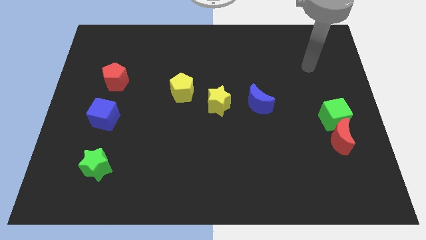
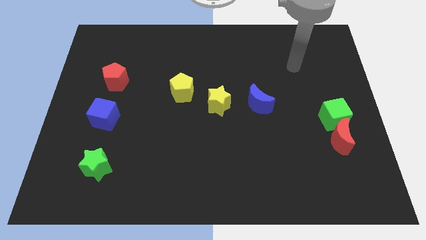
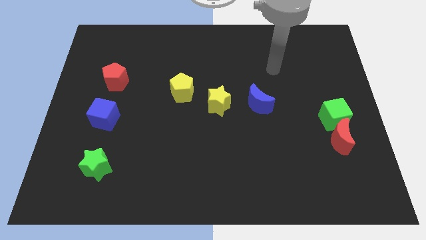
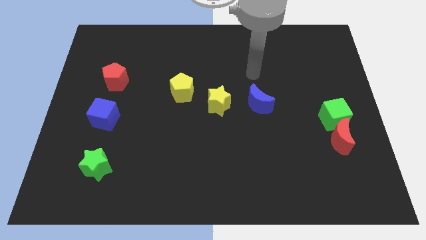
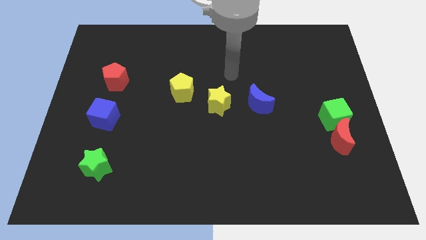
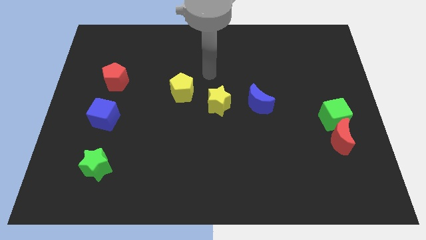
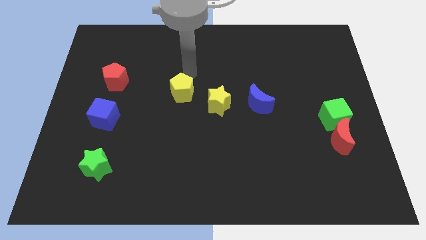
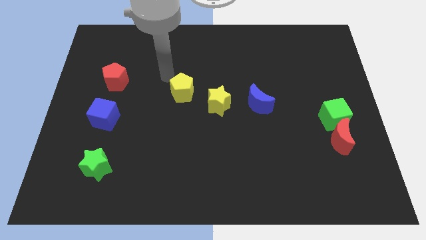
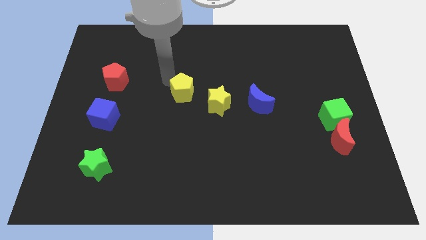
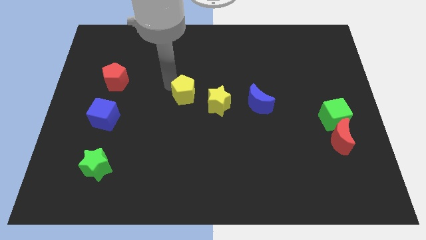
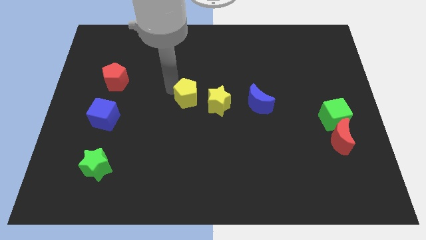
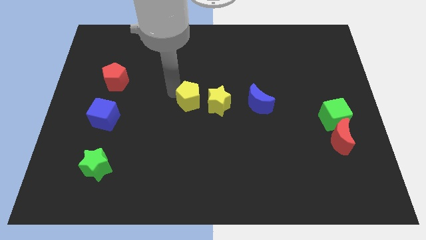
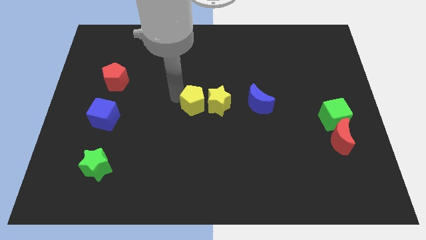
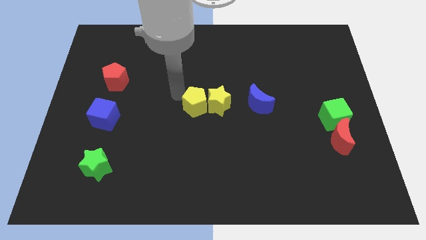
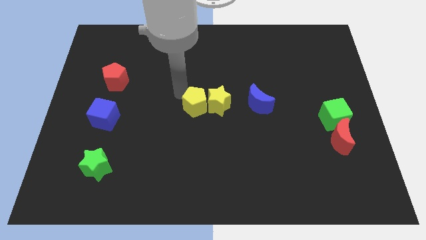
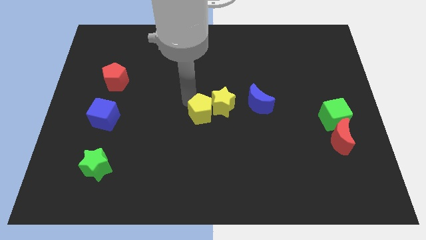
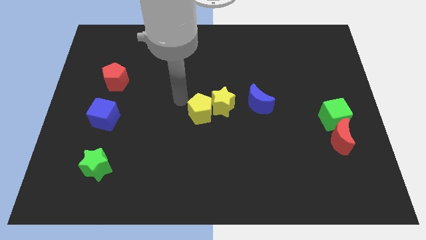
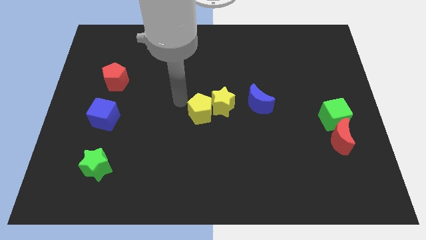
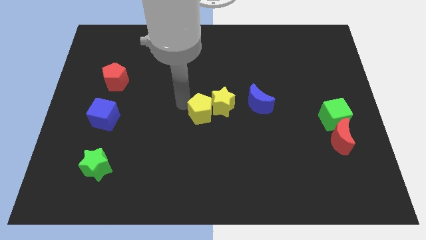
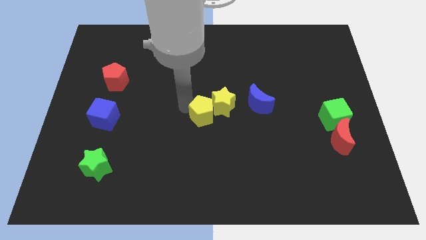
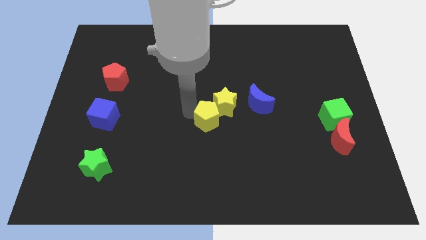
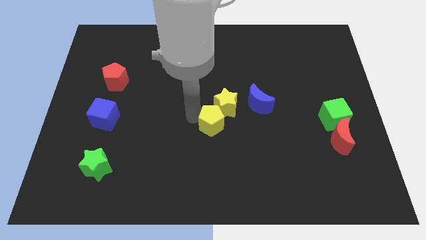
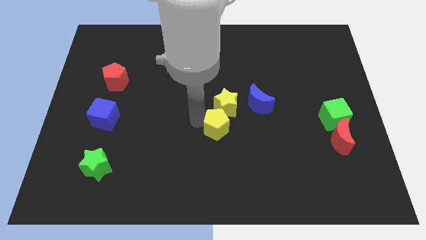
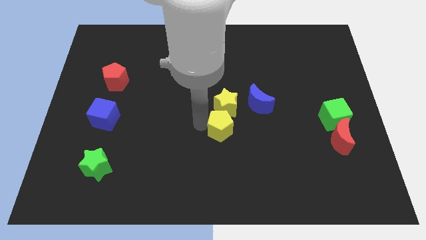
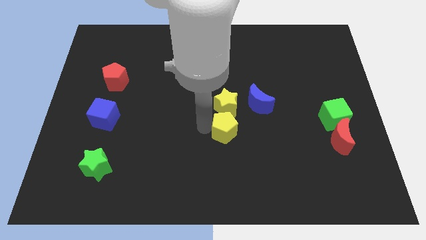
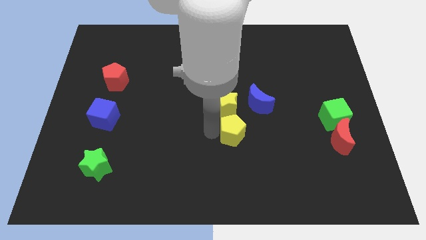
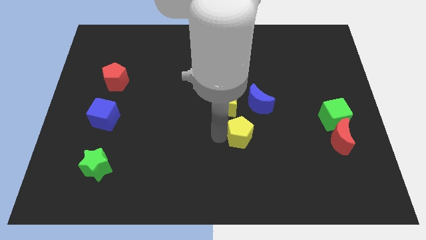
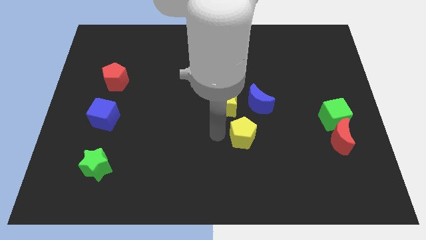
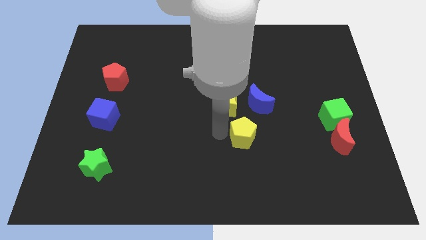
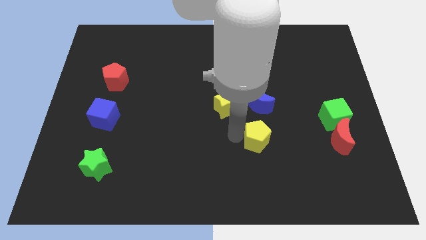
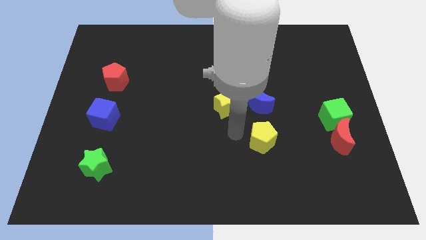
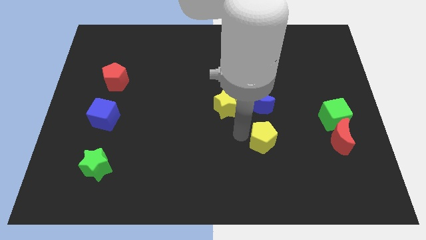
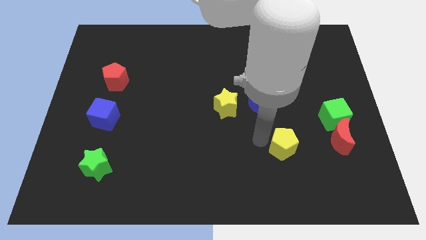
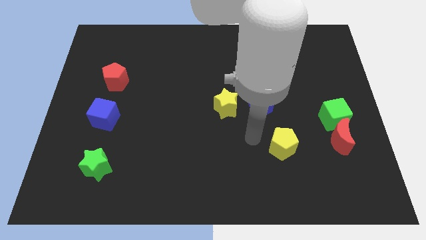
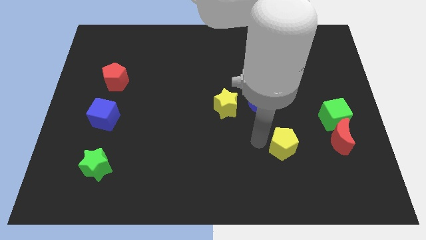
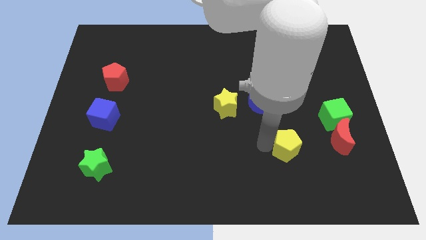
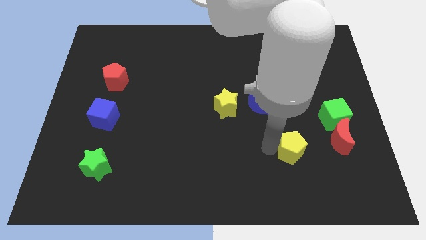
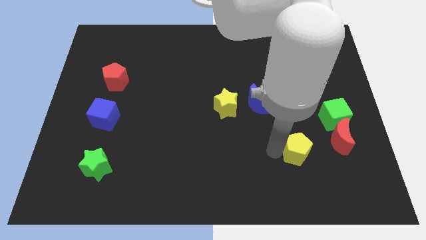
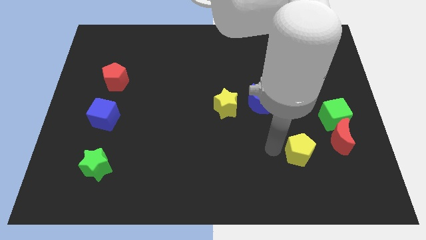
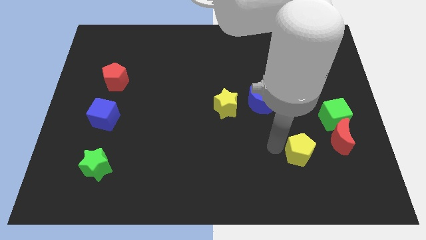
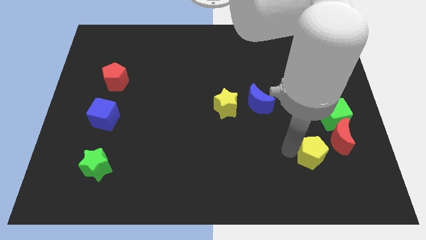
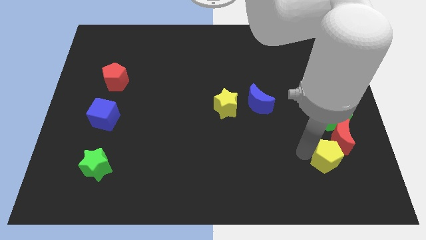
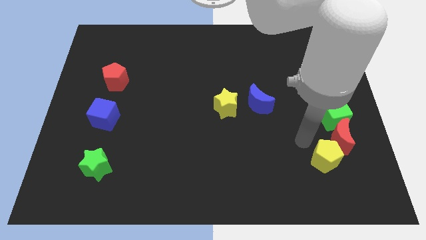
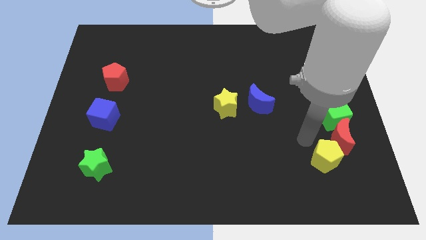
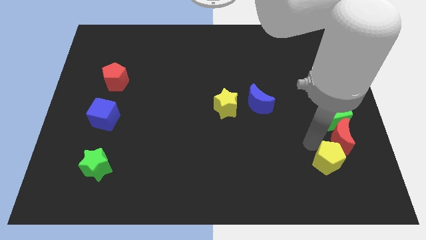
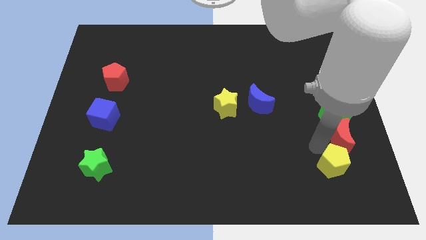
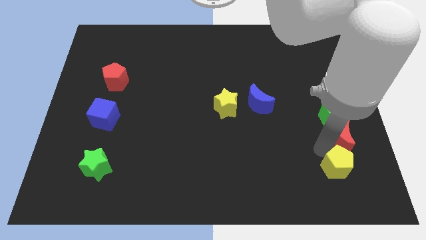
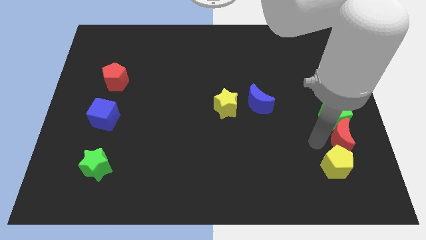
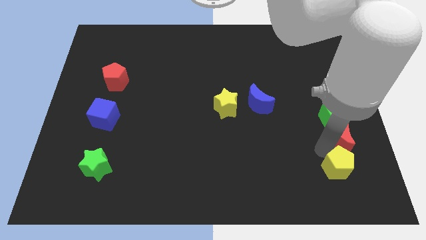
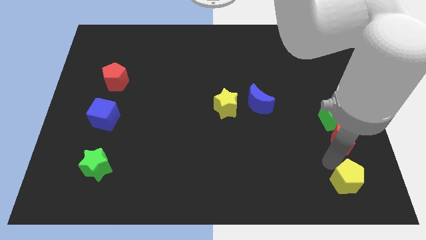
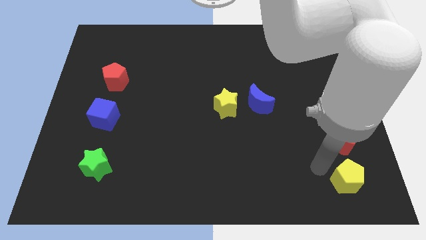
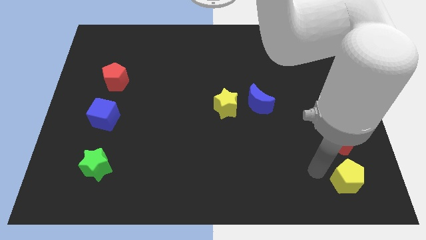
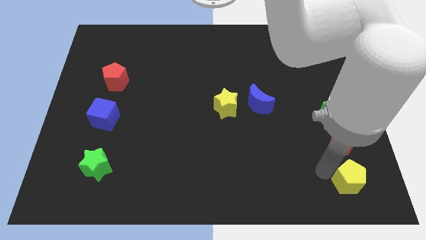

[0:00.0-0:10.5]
slide the yellow pentagon to the bottom right corner

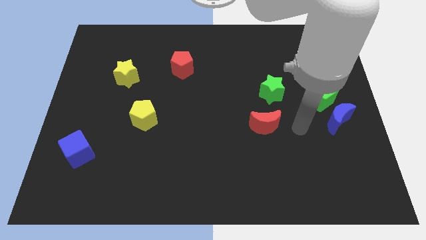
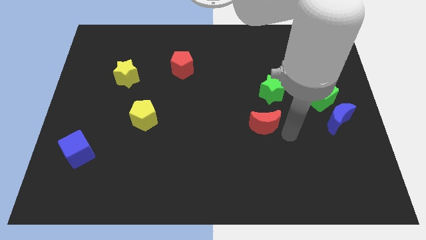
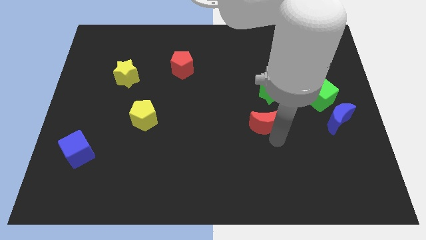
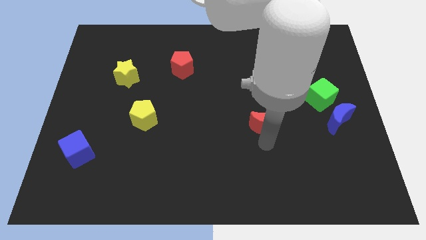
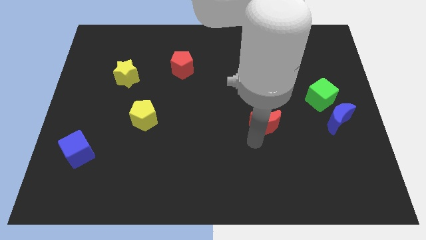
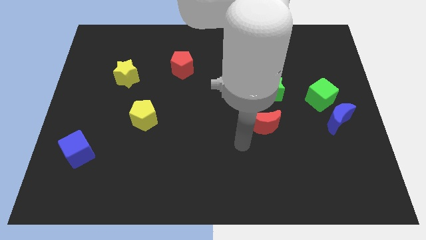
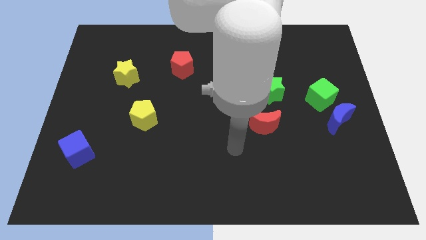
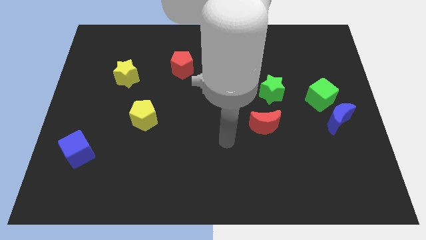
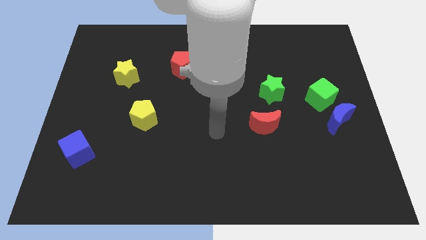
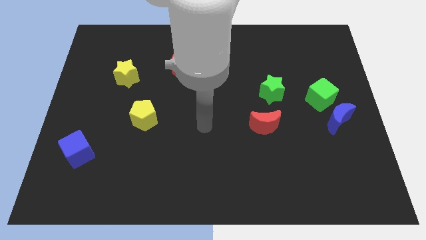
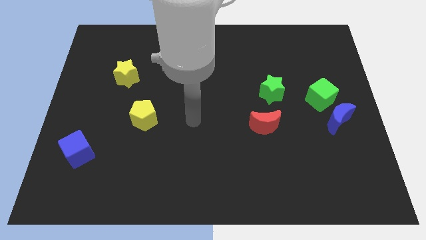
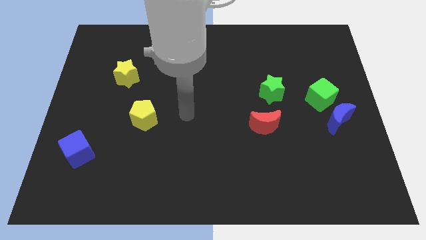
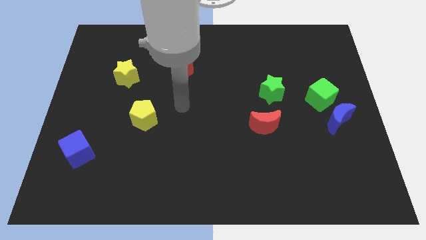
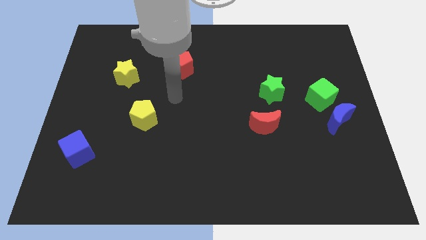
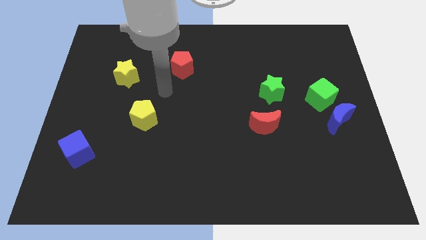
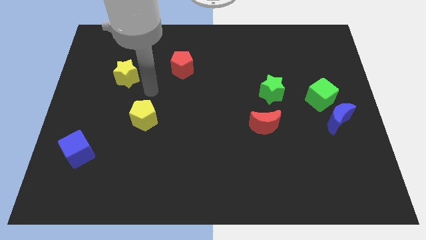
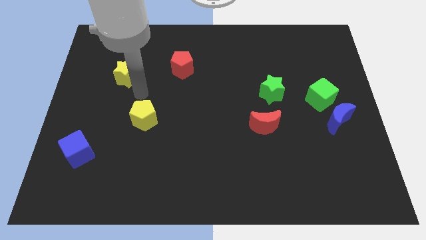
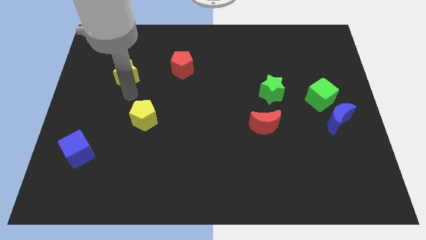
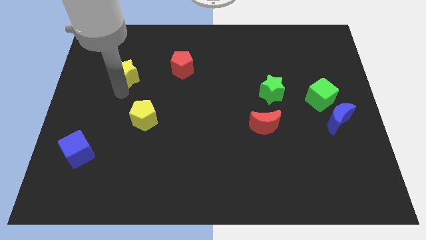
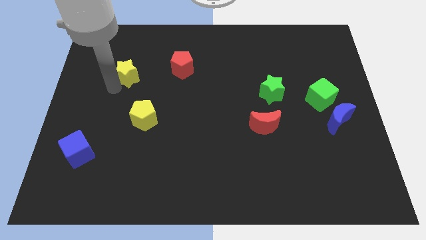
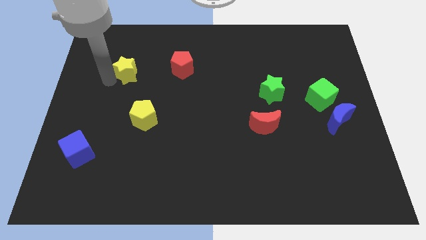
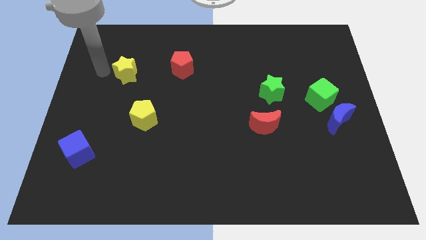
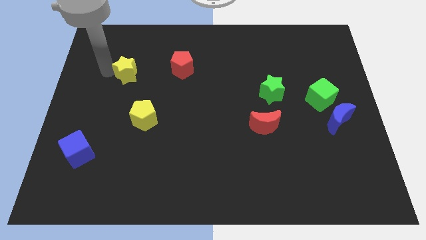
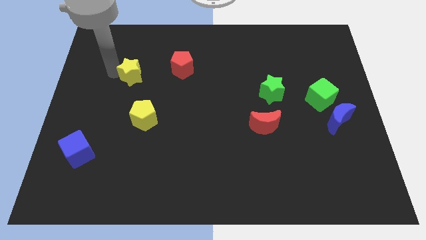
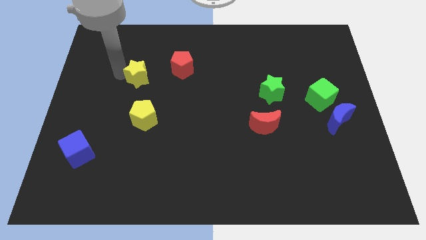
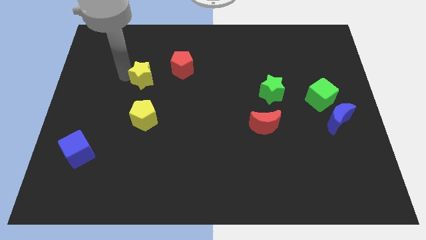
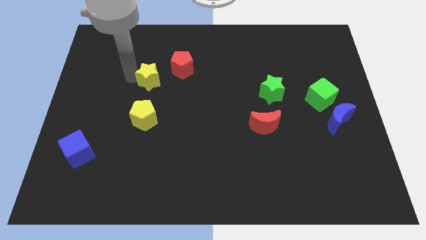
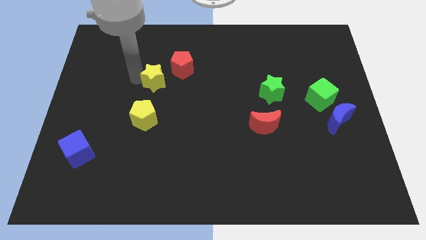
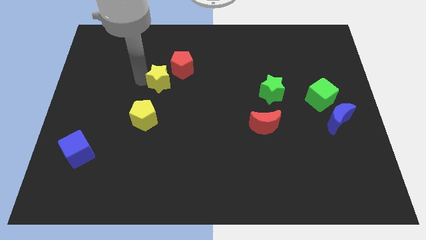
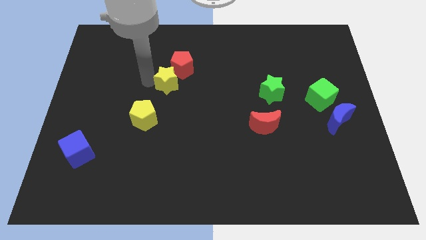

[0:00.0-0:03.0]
put the yellow star to the middle
